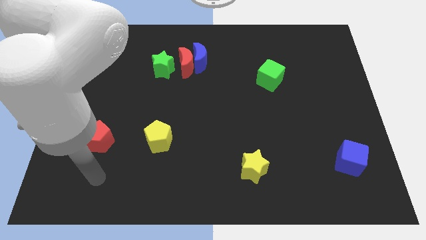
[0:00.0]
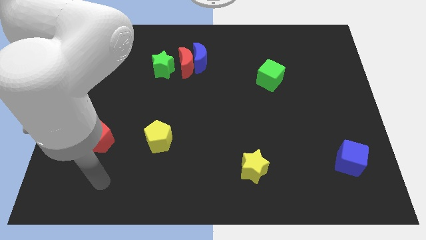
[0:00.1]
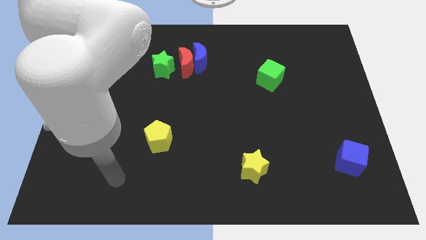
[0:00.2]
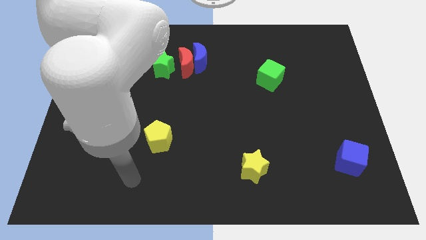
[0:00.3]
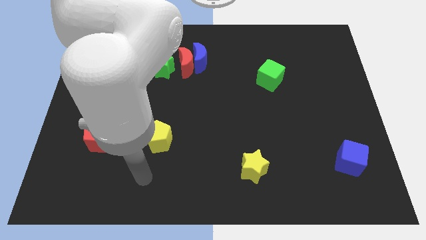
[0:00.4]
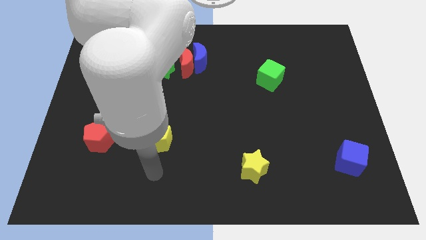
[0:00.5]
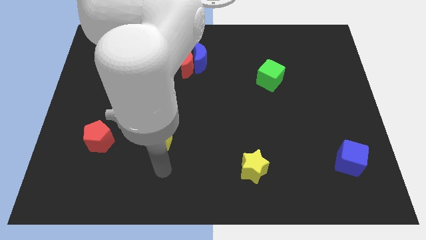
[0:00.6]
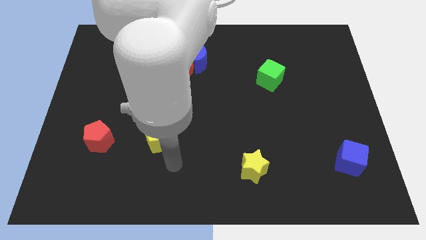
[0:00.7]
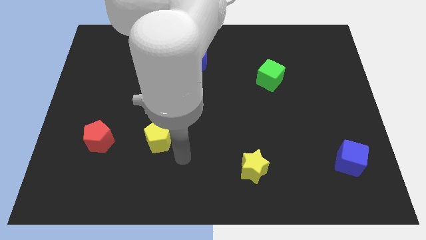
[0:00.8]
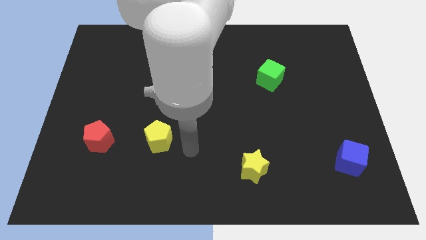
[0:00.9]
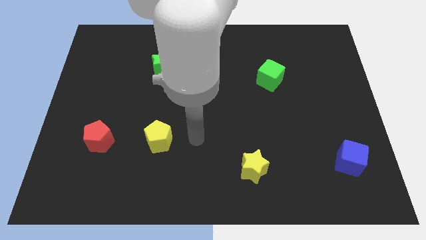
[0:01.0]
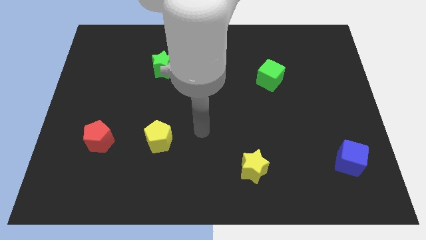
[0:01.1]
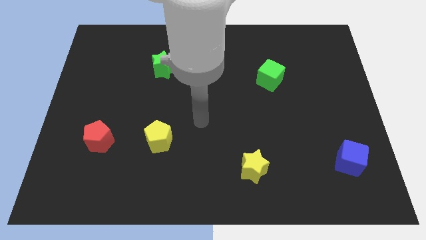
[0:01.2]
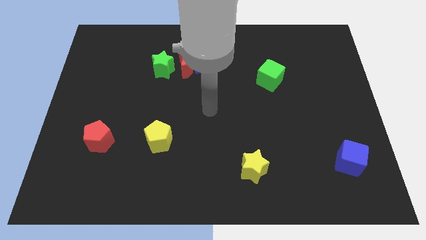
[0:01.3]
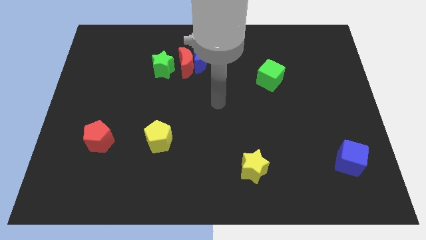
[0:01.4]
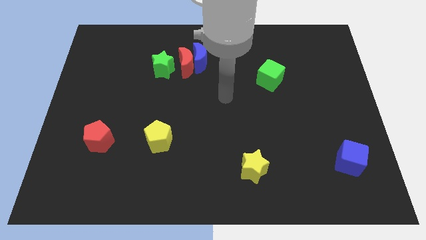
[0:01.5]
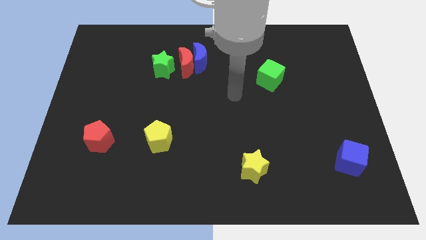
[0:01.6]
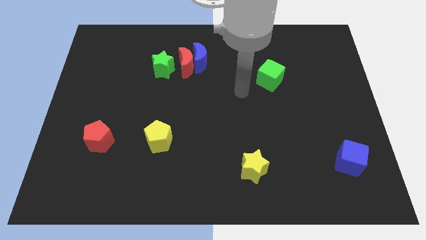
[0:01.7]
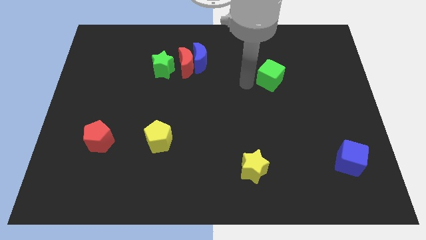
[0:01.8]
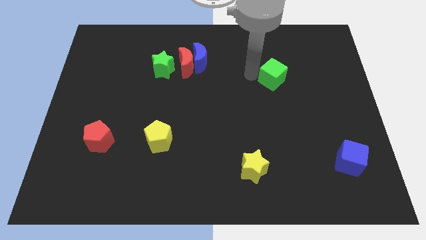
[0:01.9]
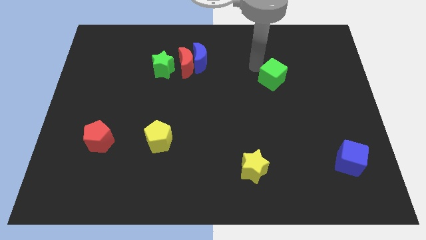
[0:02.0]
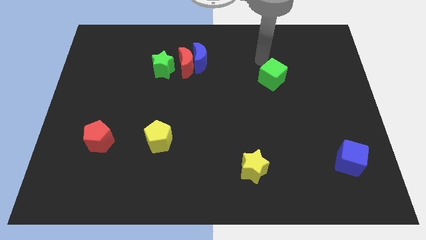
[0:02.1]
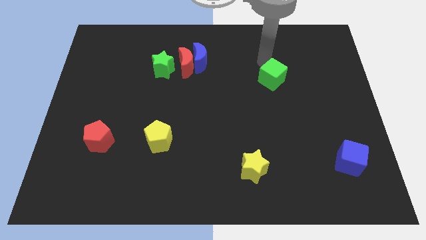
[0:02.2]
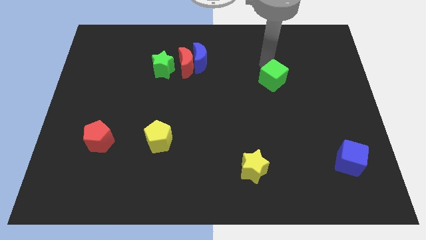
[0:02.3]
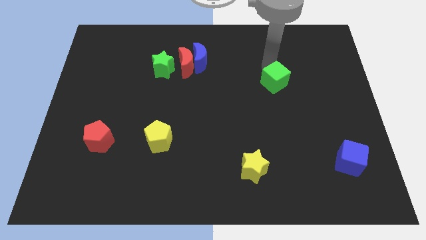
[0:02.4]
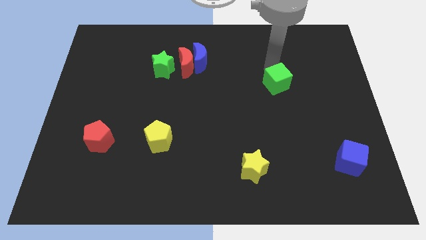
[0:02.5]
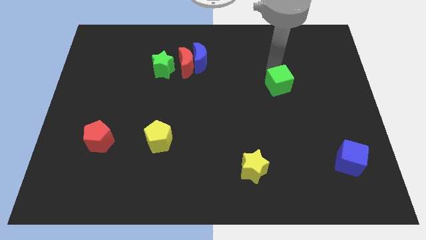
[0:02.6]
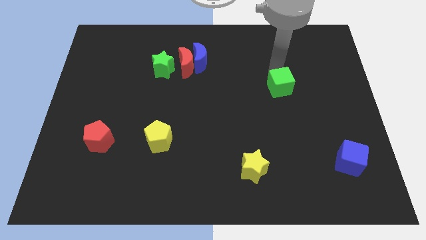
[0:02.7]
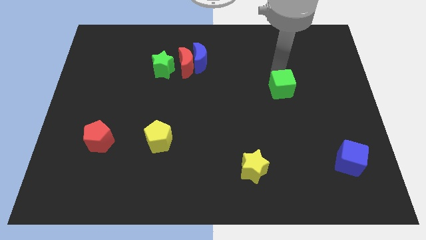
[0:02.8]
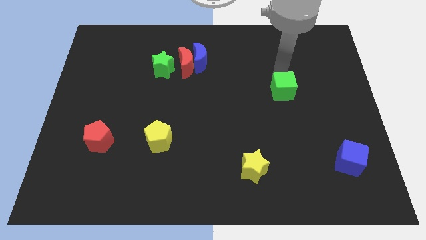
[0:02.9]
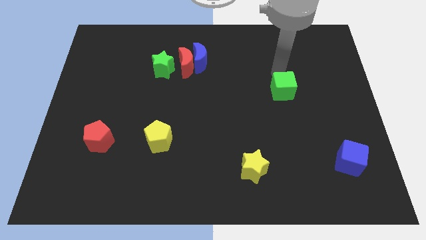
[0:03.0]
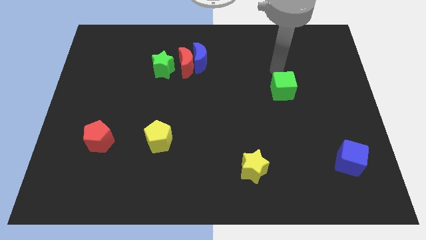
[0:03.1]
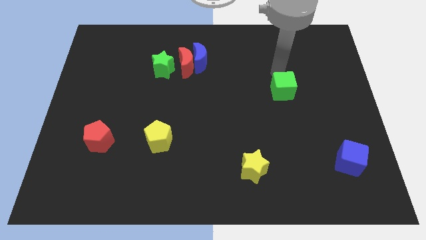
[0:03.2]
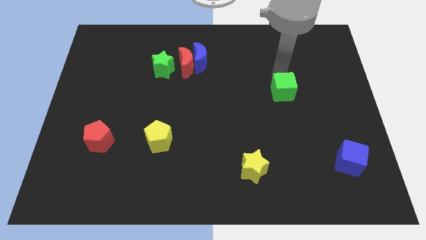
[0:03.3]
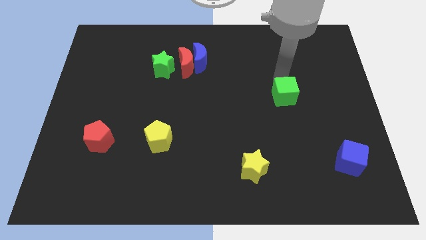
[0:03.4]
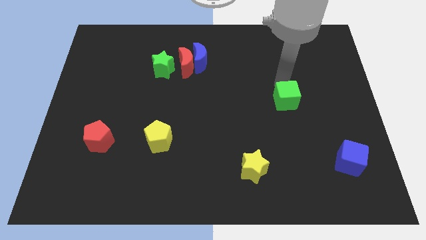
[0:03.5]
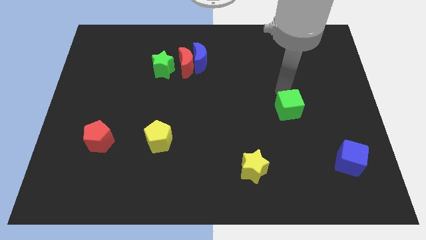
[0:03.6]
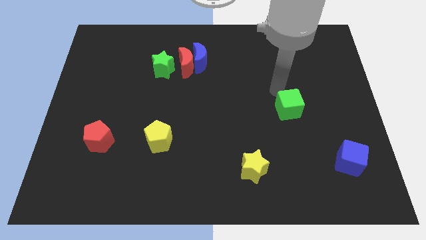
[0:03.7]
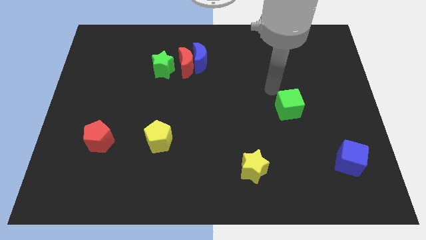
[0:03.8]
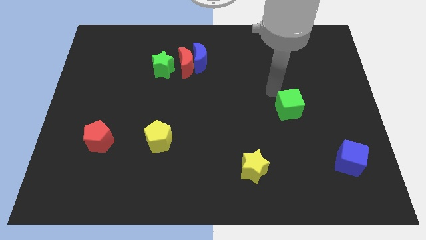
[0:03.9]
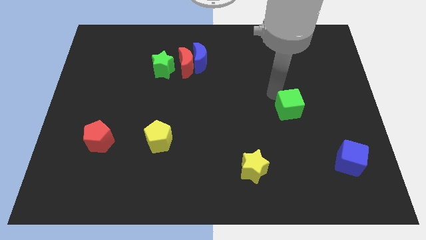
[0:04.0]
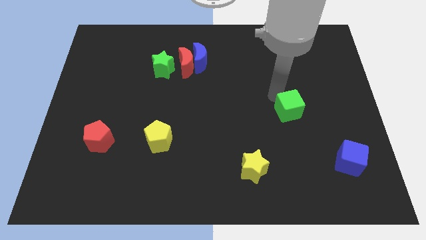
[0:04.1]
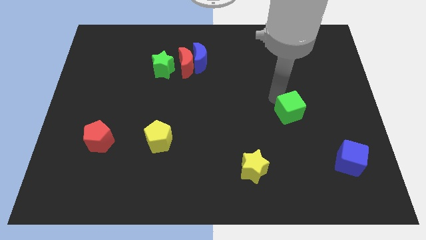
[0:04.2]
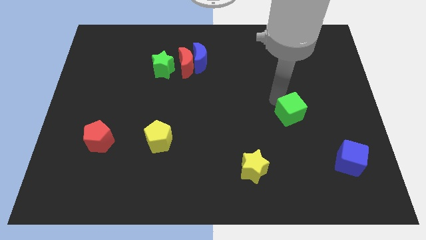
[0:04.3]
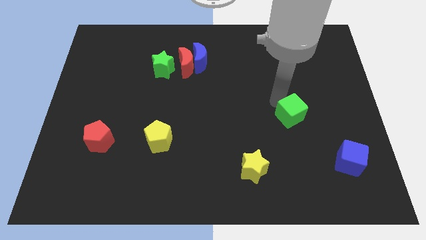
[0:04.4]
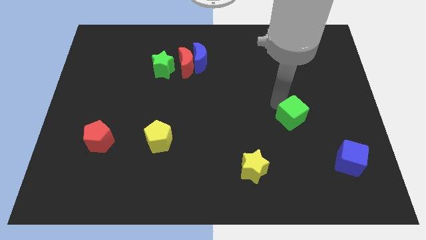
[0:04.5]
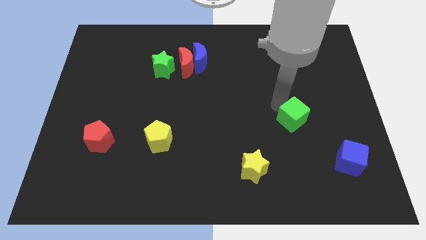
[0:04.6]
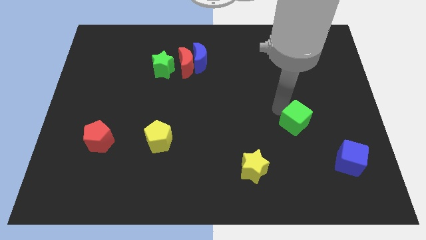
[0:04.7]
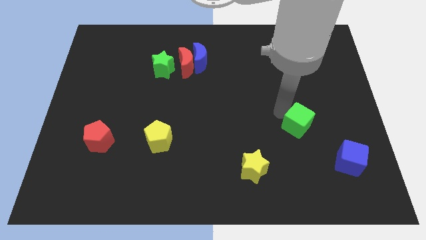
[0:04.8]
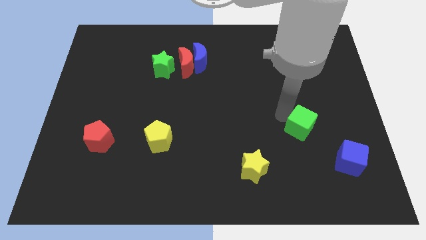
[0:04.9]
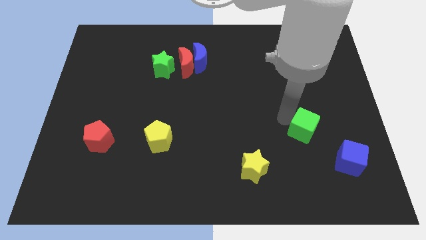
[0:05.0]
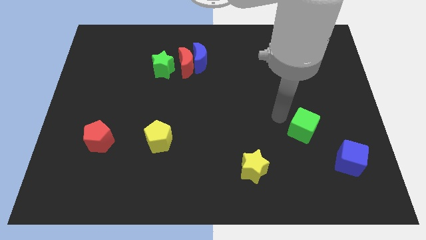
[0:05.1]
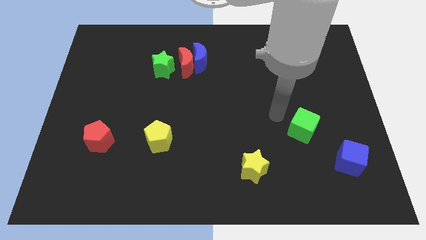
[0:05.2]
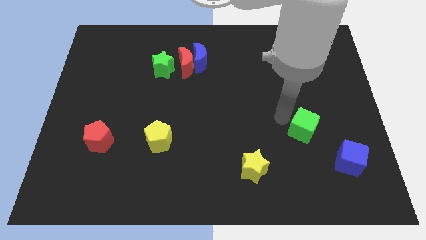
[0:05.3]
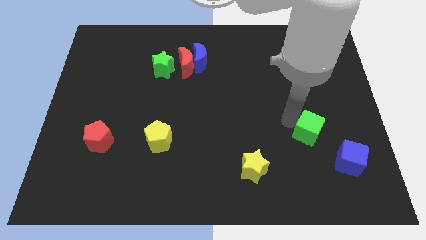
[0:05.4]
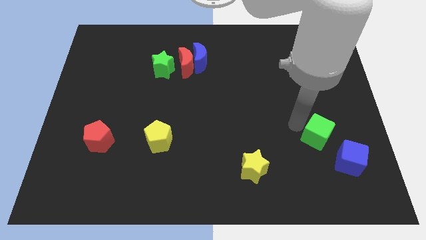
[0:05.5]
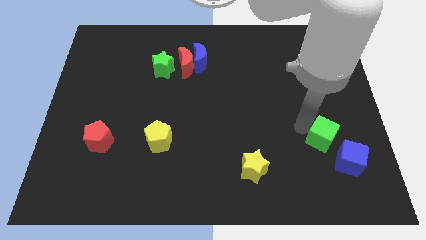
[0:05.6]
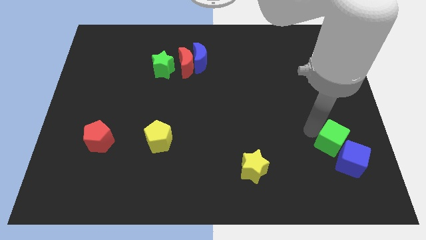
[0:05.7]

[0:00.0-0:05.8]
put the green cube close to the blue cube

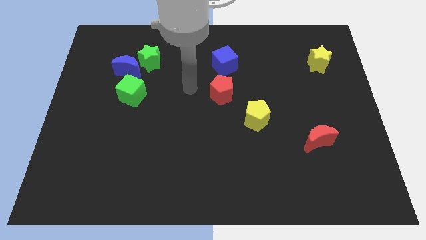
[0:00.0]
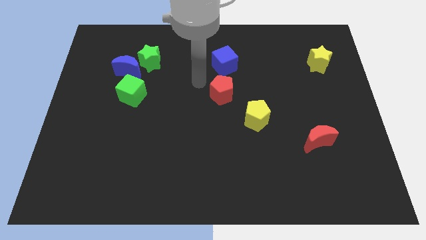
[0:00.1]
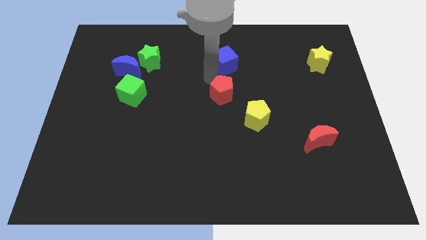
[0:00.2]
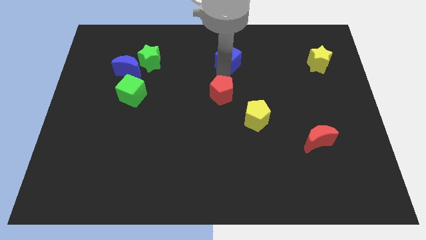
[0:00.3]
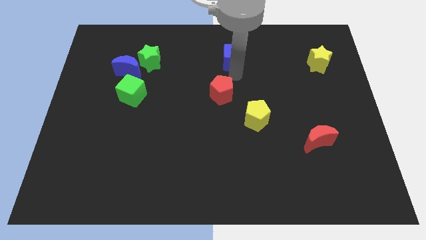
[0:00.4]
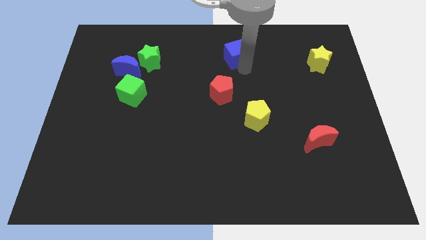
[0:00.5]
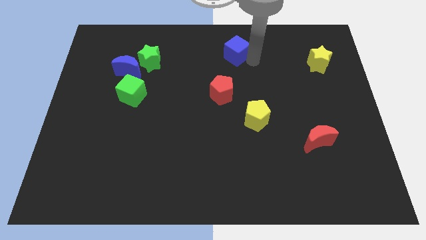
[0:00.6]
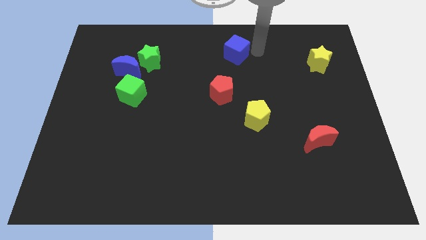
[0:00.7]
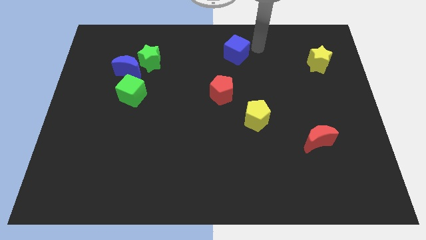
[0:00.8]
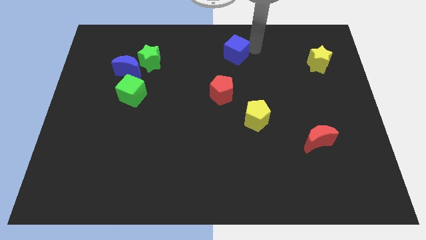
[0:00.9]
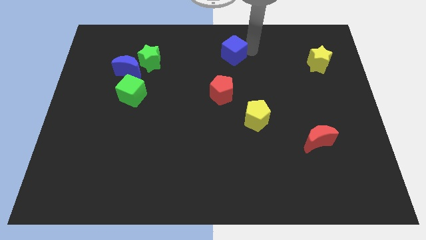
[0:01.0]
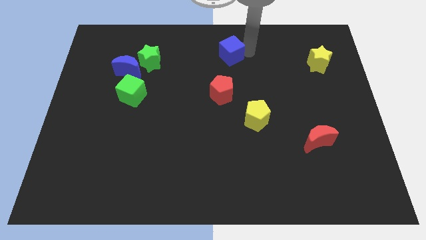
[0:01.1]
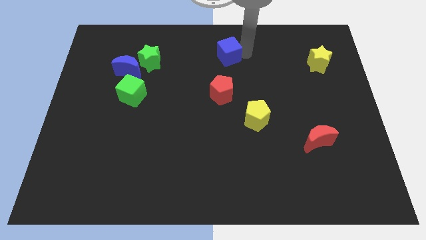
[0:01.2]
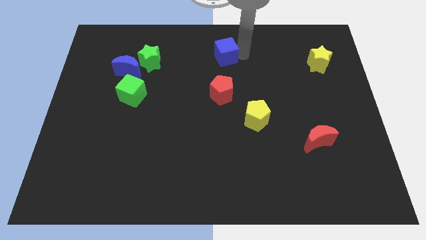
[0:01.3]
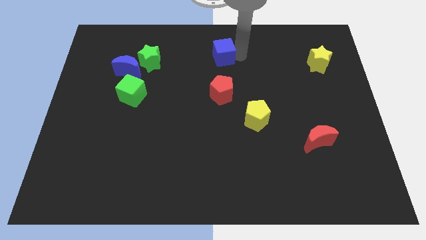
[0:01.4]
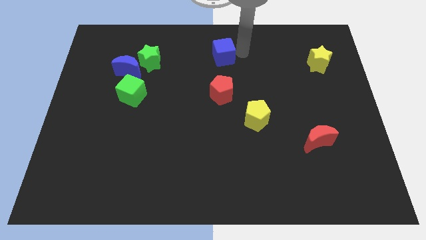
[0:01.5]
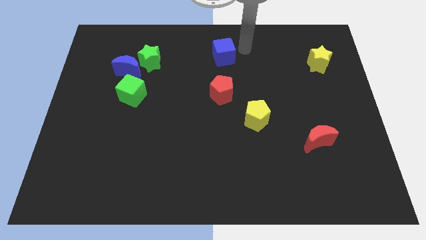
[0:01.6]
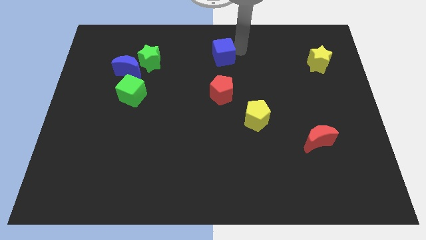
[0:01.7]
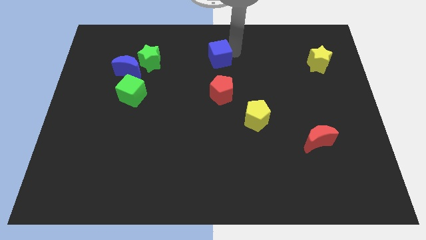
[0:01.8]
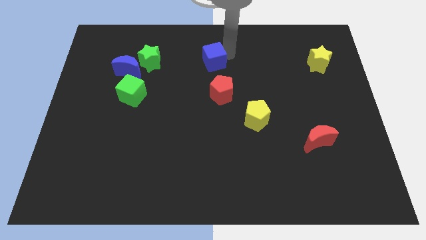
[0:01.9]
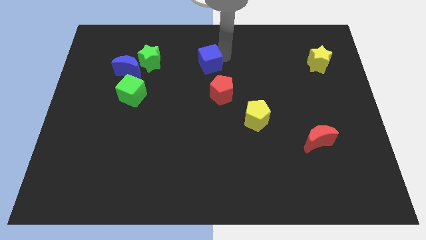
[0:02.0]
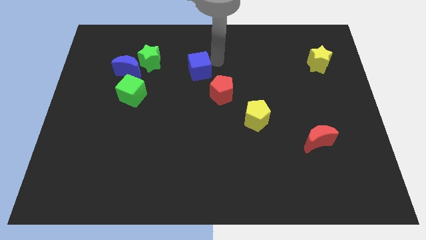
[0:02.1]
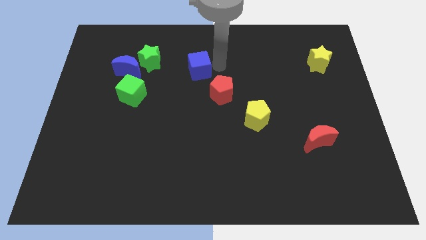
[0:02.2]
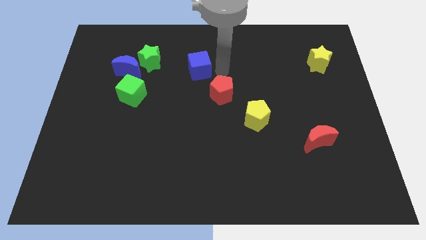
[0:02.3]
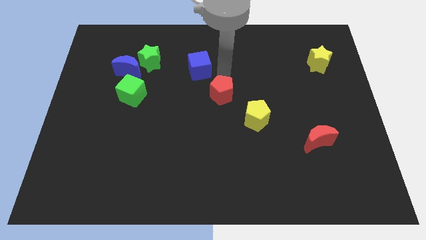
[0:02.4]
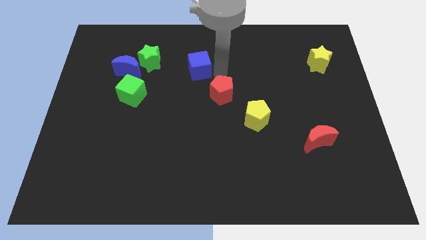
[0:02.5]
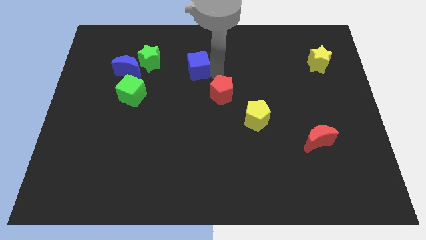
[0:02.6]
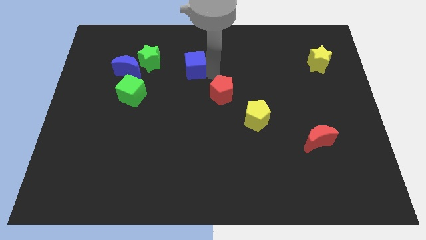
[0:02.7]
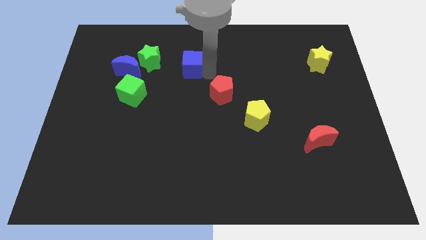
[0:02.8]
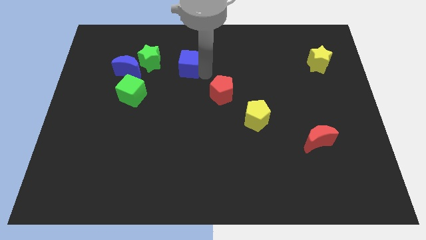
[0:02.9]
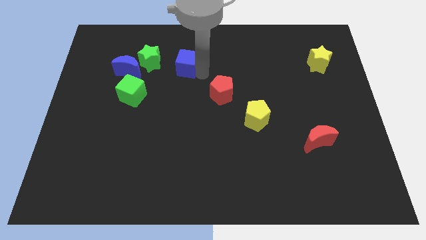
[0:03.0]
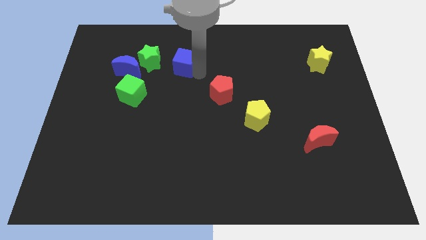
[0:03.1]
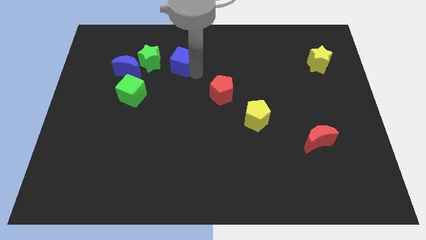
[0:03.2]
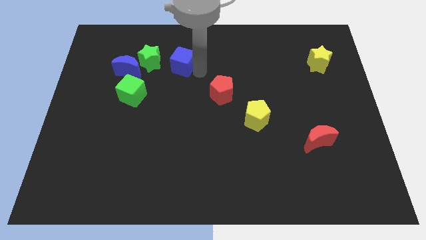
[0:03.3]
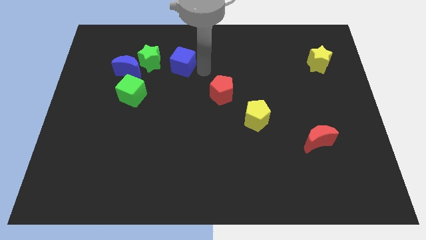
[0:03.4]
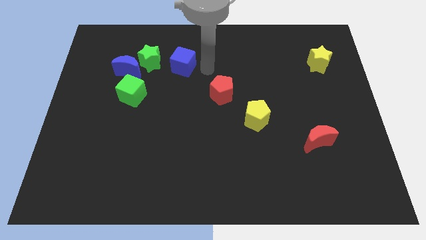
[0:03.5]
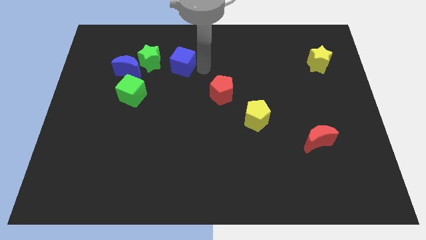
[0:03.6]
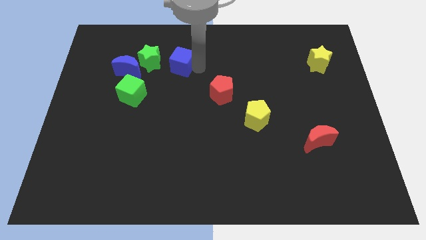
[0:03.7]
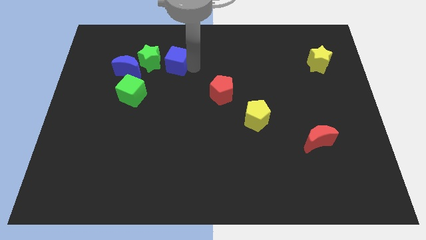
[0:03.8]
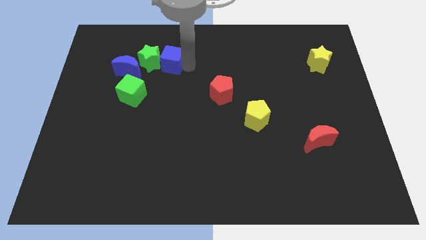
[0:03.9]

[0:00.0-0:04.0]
push the blue cube next to the green star
